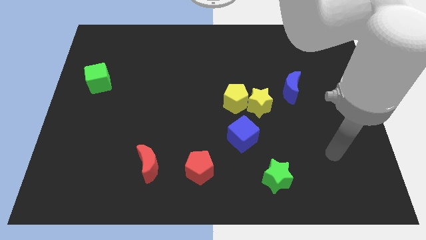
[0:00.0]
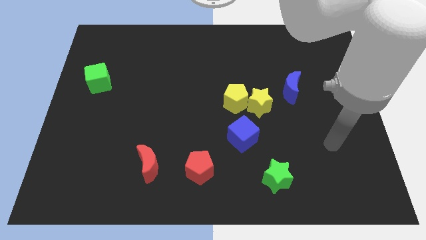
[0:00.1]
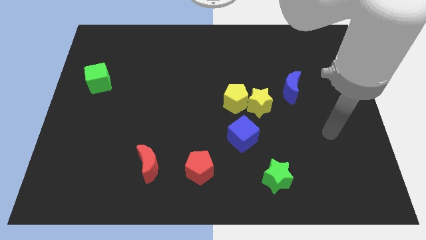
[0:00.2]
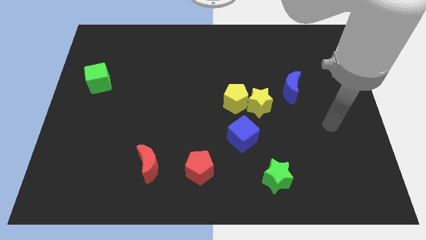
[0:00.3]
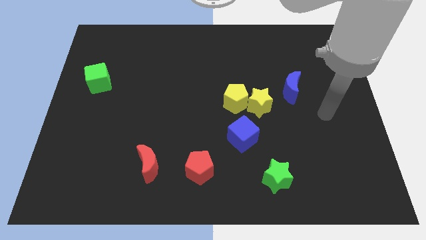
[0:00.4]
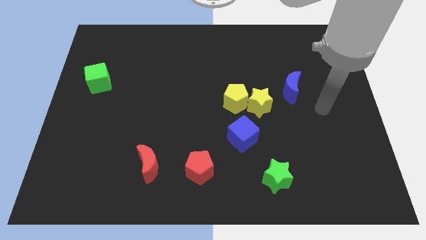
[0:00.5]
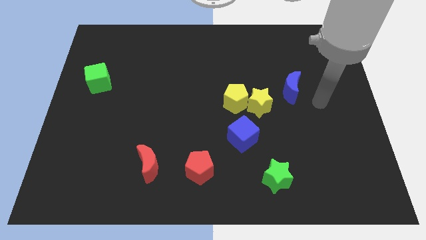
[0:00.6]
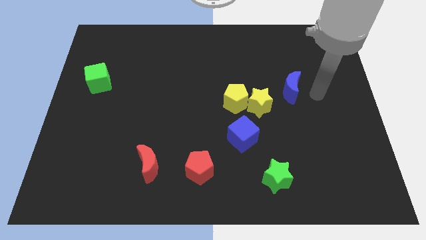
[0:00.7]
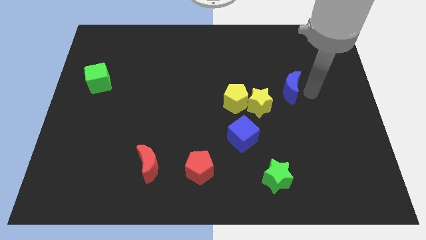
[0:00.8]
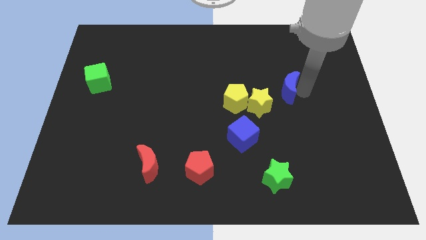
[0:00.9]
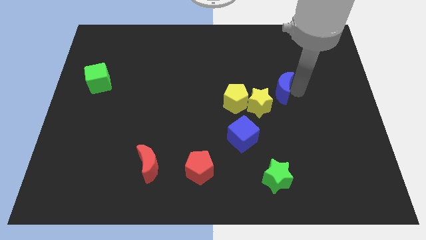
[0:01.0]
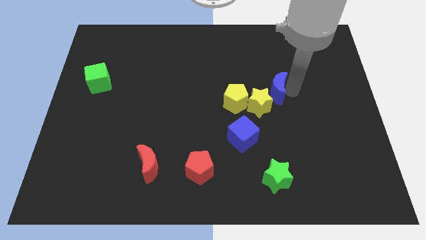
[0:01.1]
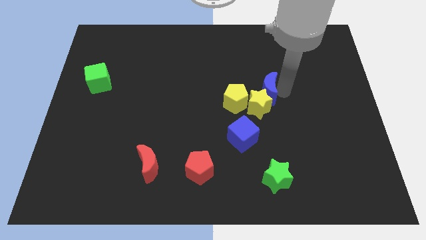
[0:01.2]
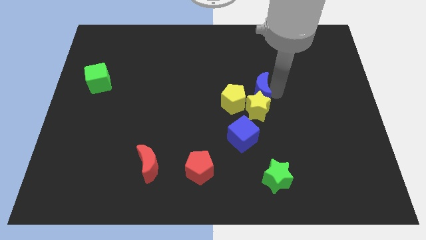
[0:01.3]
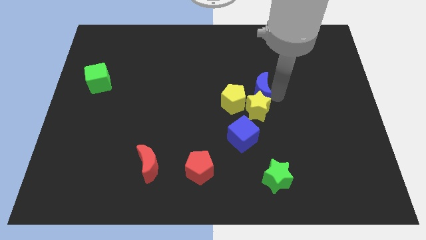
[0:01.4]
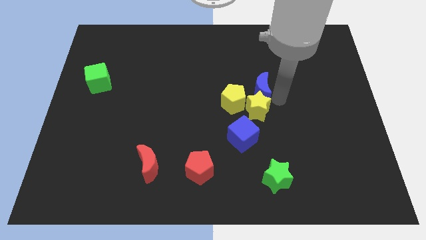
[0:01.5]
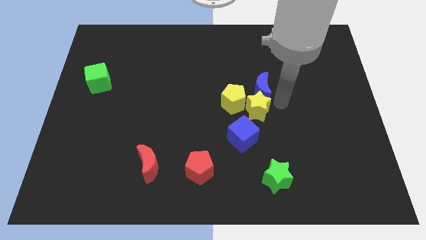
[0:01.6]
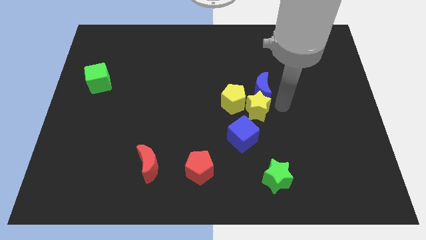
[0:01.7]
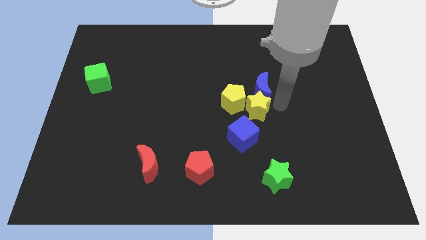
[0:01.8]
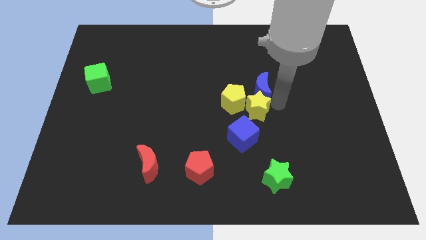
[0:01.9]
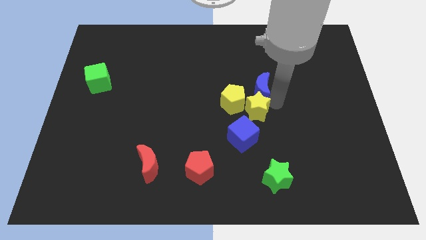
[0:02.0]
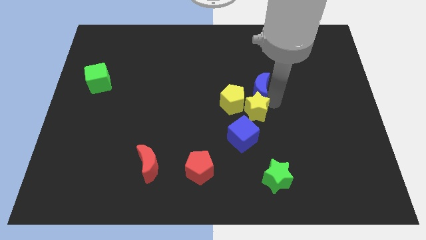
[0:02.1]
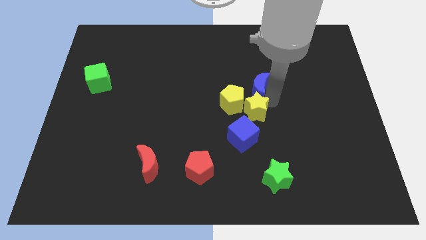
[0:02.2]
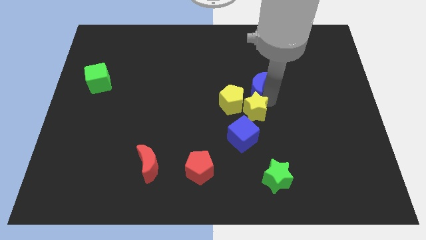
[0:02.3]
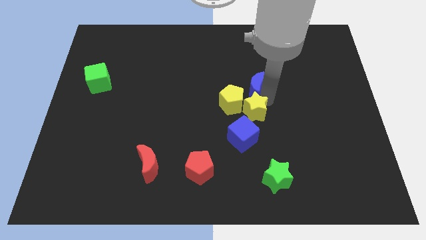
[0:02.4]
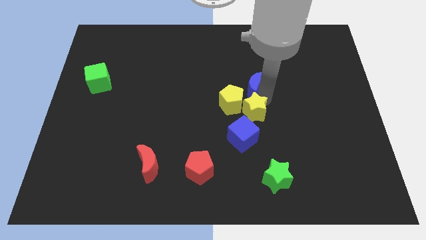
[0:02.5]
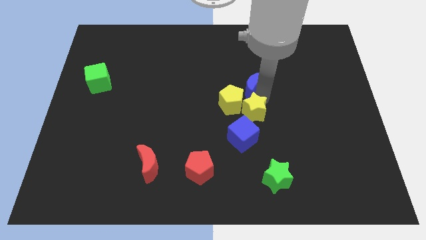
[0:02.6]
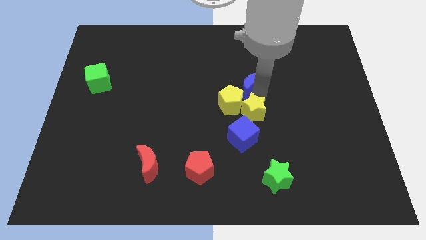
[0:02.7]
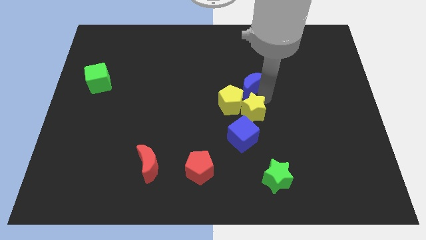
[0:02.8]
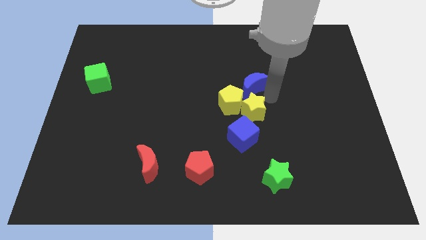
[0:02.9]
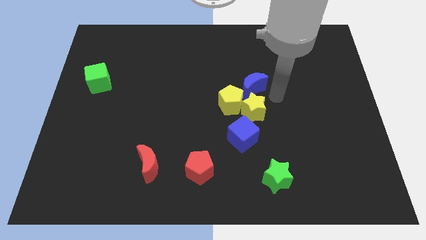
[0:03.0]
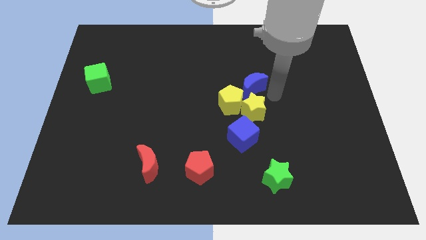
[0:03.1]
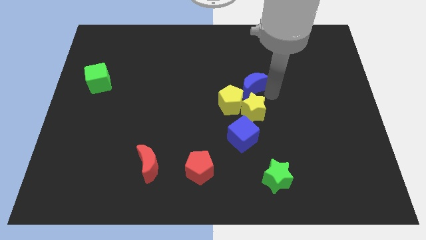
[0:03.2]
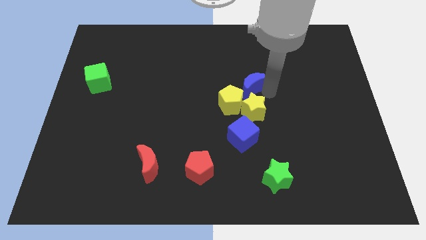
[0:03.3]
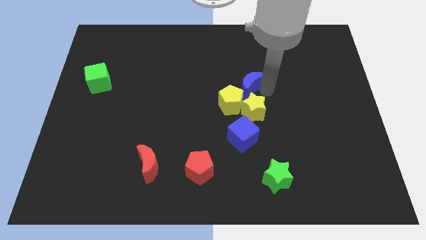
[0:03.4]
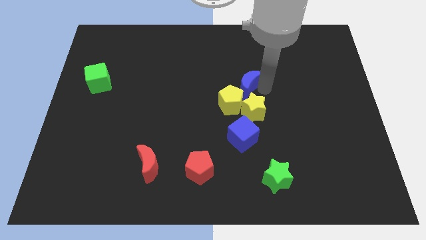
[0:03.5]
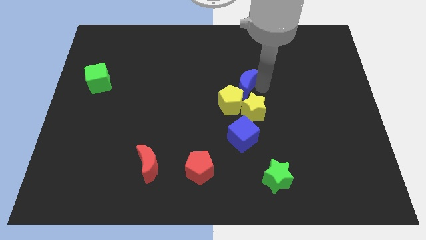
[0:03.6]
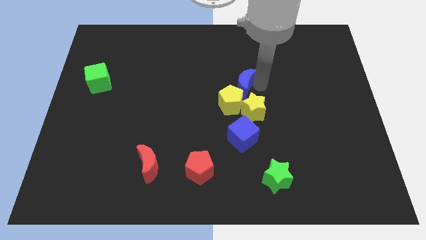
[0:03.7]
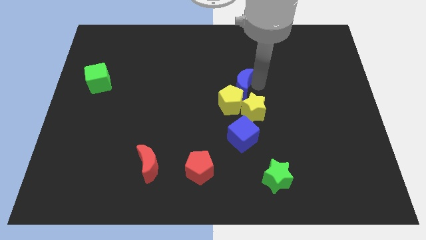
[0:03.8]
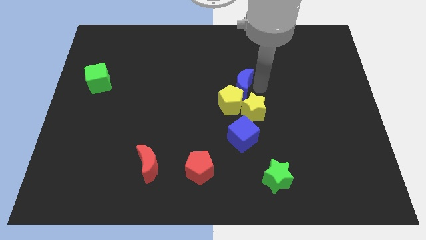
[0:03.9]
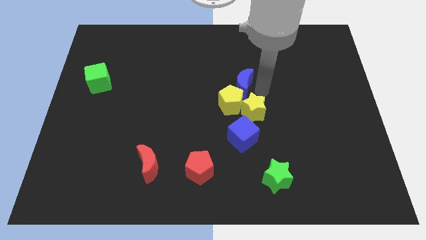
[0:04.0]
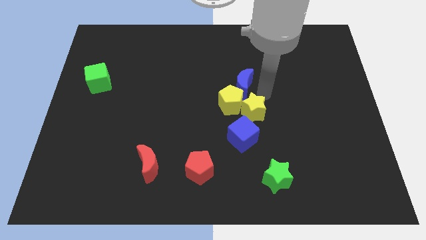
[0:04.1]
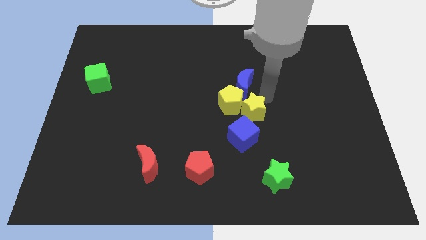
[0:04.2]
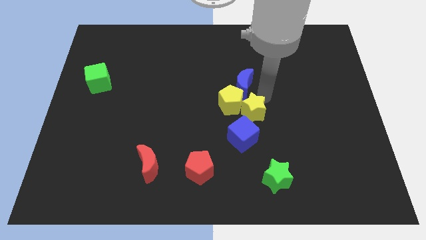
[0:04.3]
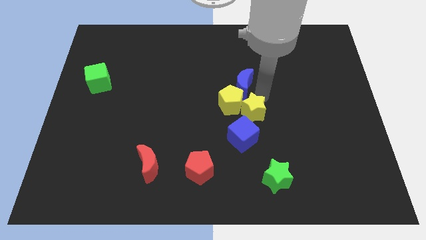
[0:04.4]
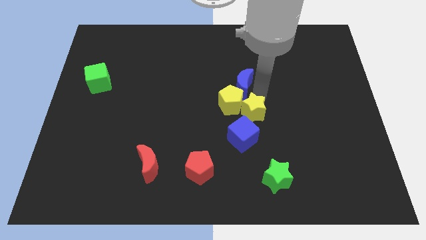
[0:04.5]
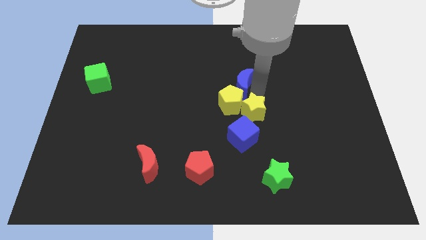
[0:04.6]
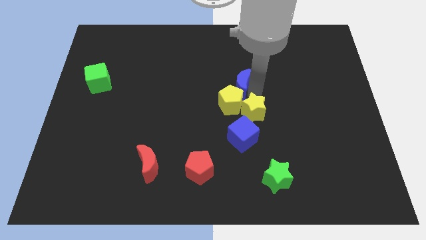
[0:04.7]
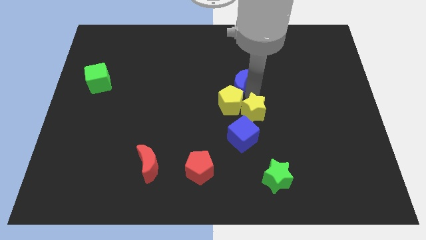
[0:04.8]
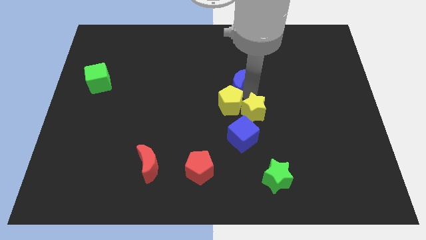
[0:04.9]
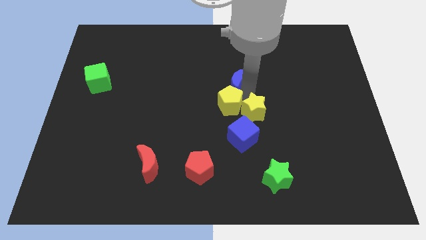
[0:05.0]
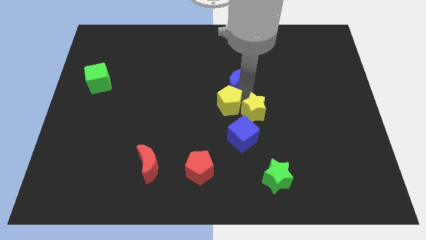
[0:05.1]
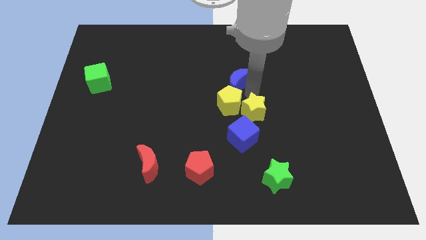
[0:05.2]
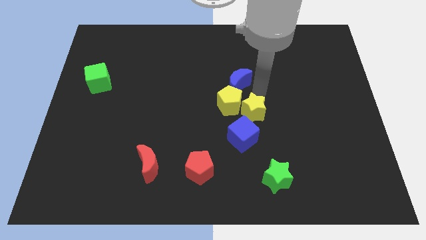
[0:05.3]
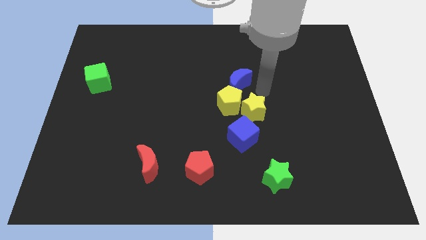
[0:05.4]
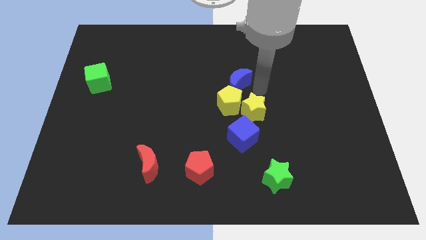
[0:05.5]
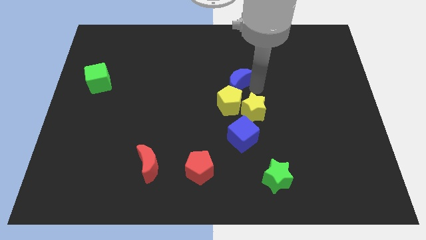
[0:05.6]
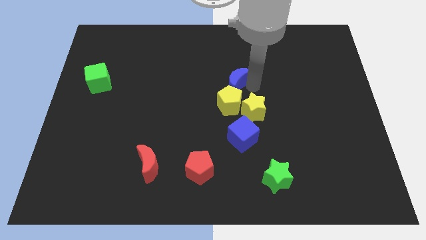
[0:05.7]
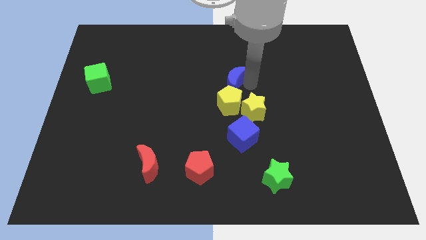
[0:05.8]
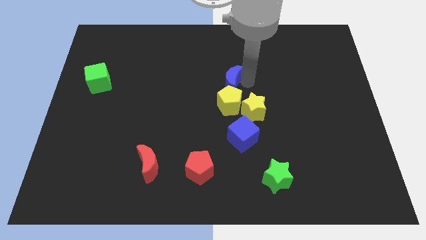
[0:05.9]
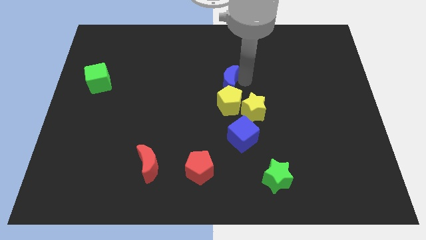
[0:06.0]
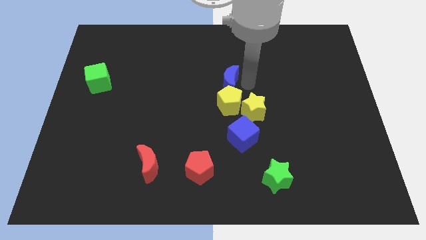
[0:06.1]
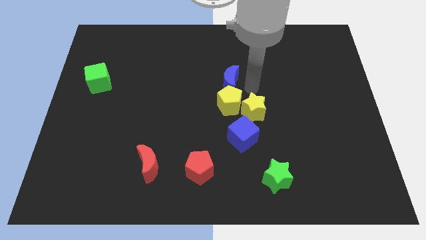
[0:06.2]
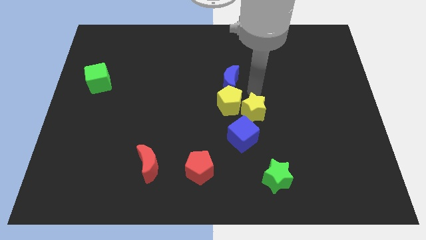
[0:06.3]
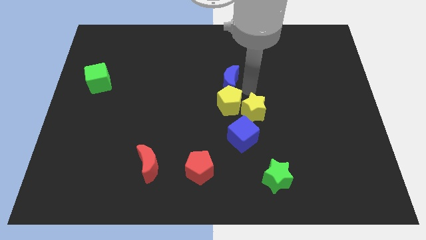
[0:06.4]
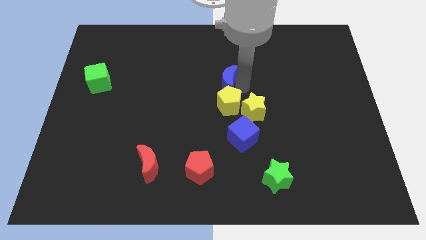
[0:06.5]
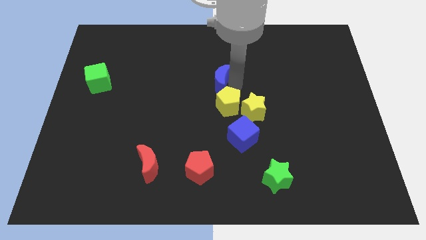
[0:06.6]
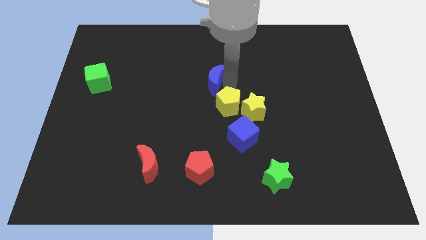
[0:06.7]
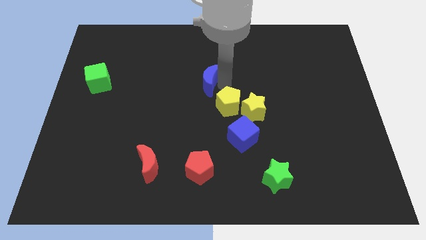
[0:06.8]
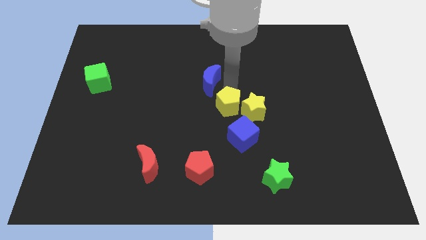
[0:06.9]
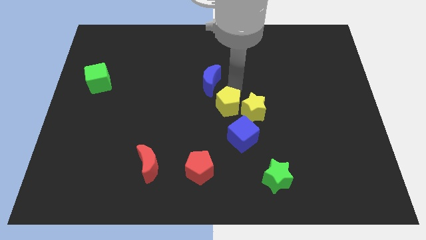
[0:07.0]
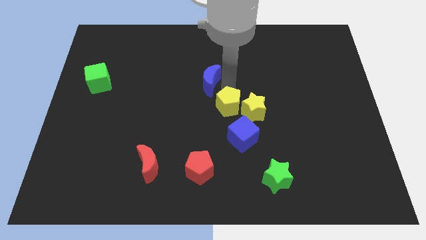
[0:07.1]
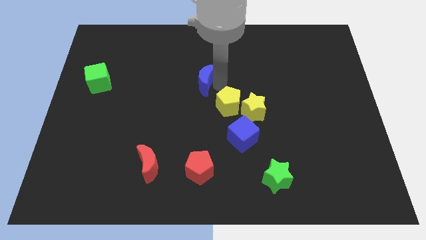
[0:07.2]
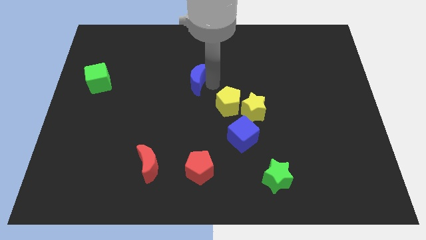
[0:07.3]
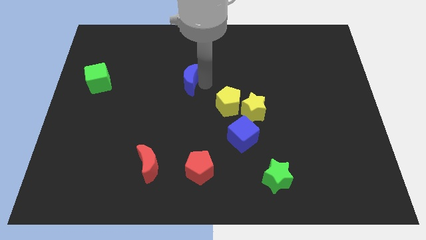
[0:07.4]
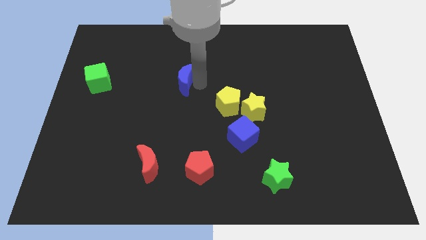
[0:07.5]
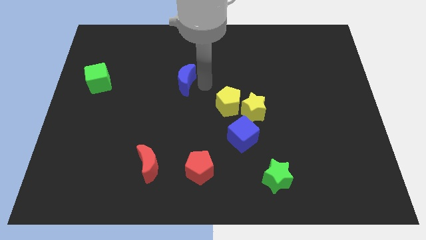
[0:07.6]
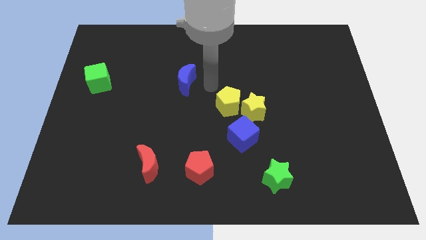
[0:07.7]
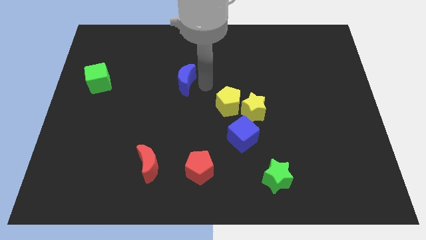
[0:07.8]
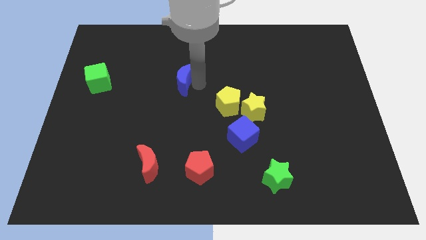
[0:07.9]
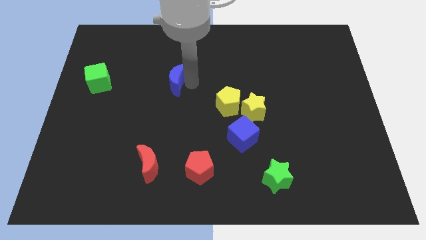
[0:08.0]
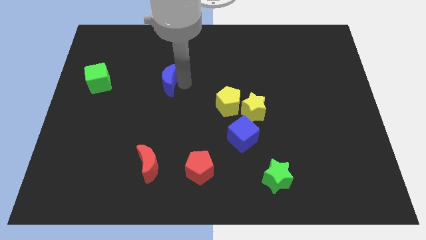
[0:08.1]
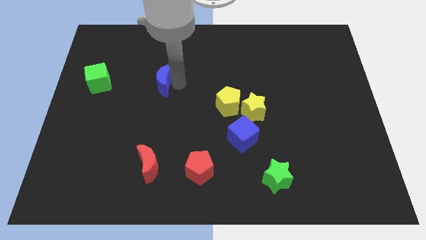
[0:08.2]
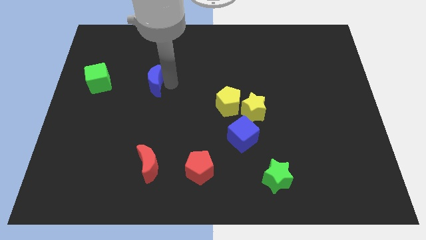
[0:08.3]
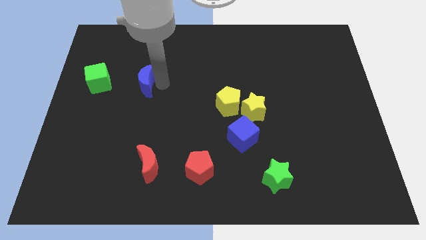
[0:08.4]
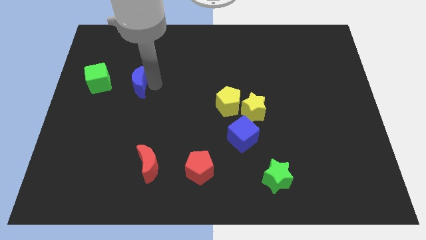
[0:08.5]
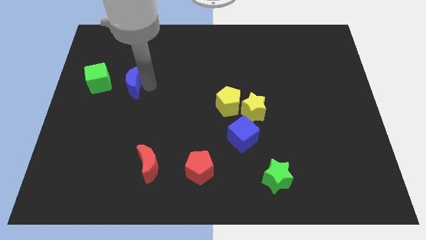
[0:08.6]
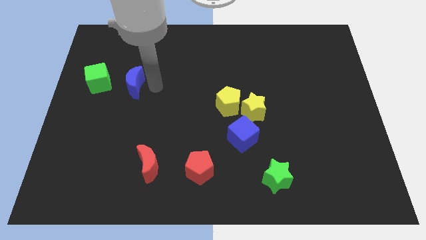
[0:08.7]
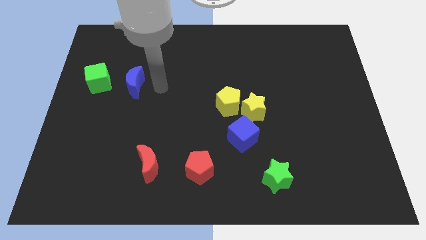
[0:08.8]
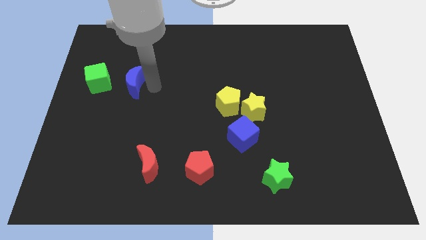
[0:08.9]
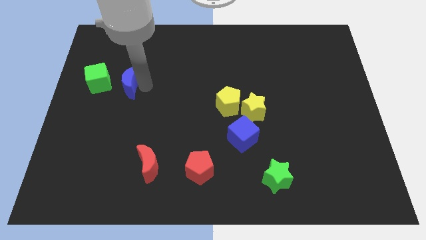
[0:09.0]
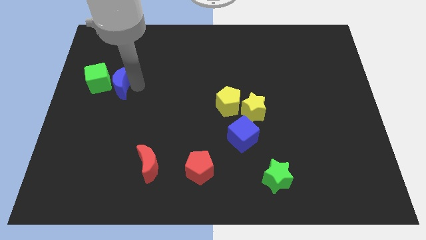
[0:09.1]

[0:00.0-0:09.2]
push the blue moon close to the green cube
